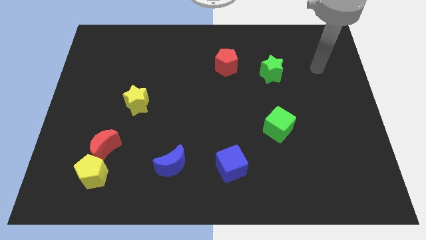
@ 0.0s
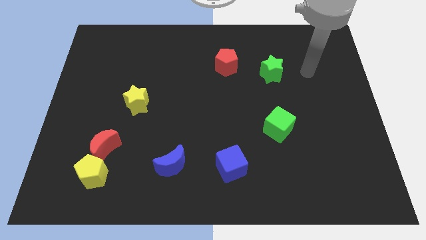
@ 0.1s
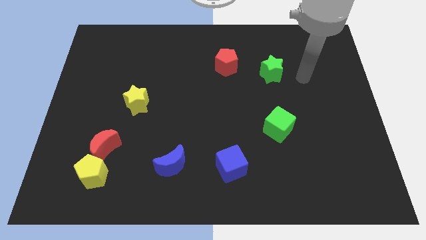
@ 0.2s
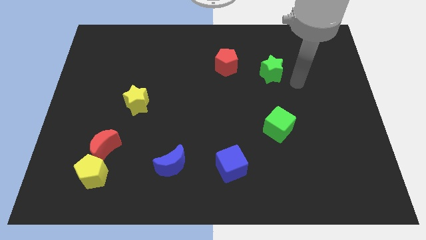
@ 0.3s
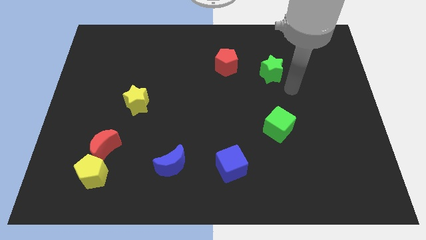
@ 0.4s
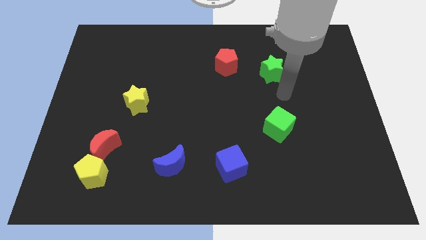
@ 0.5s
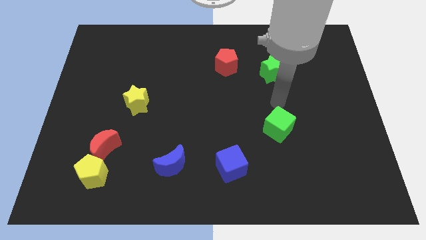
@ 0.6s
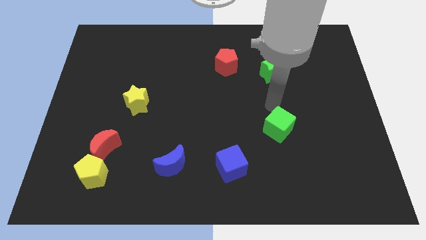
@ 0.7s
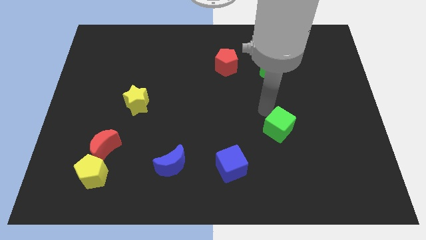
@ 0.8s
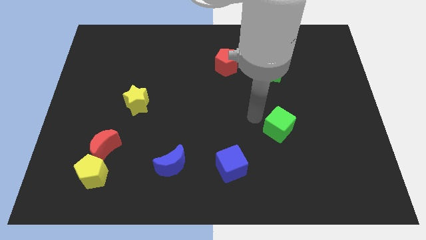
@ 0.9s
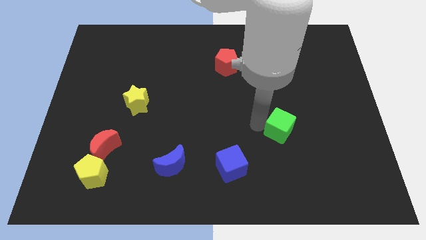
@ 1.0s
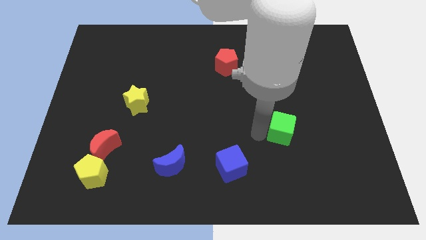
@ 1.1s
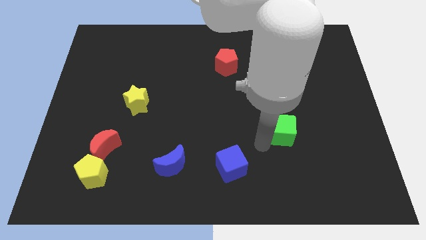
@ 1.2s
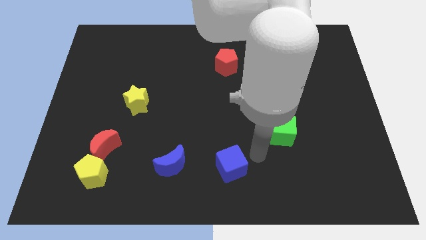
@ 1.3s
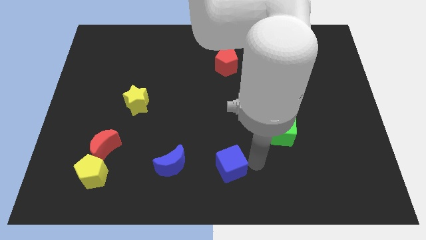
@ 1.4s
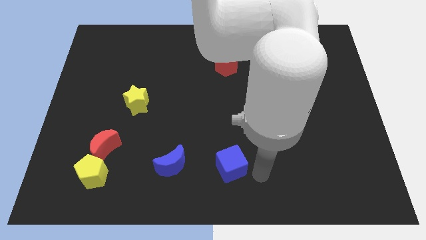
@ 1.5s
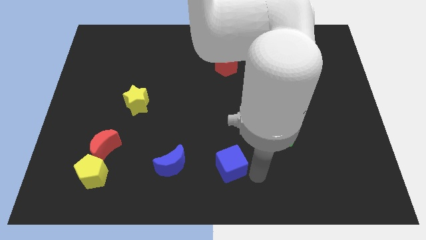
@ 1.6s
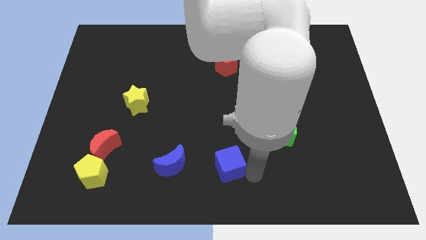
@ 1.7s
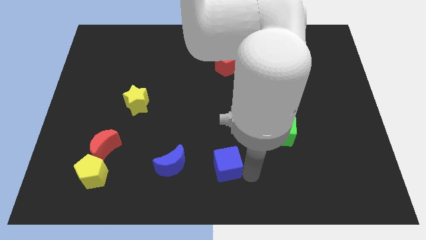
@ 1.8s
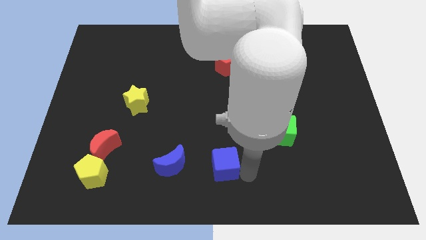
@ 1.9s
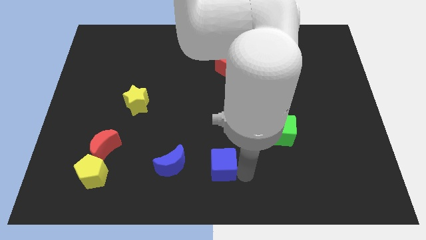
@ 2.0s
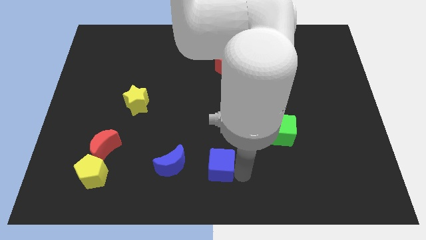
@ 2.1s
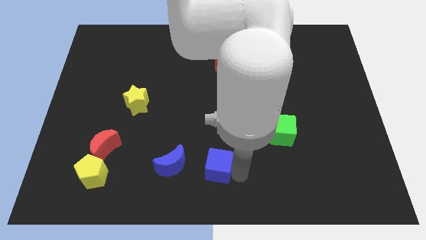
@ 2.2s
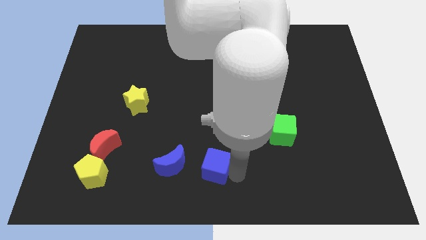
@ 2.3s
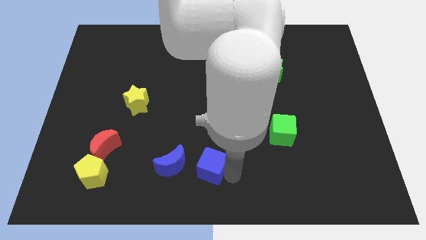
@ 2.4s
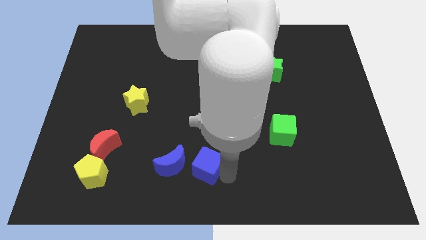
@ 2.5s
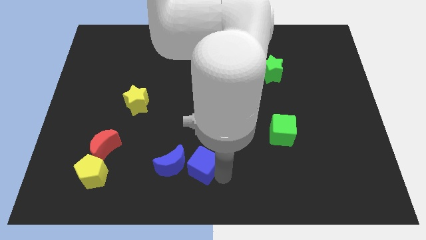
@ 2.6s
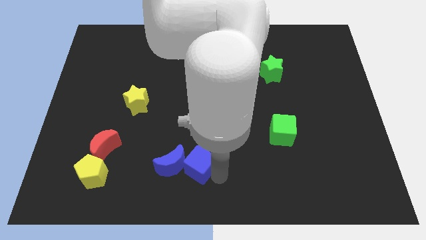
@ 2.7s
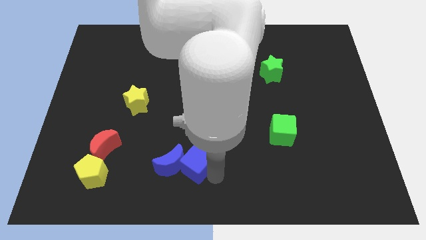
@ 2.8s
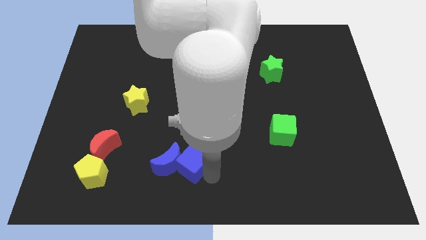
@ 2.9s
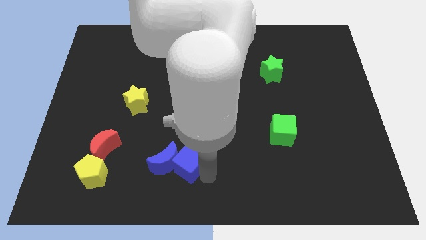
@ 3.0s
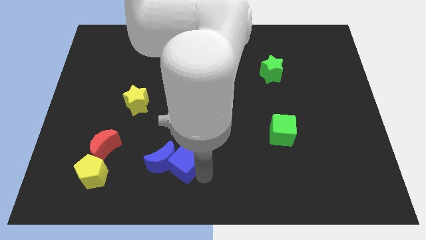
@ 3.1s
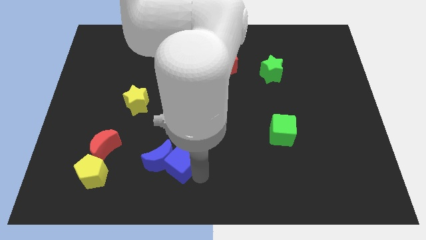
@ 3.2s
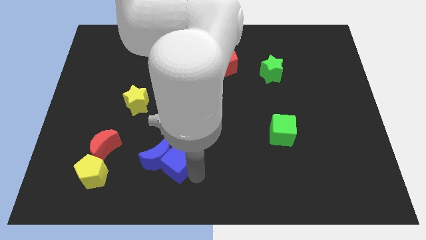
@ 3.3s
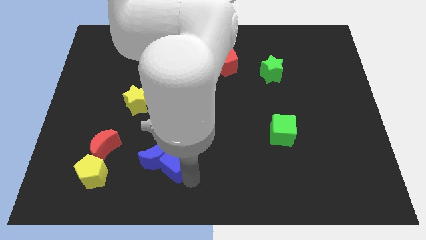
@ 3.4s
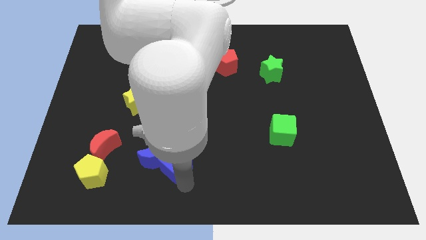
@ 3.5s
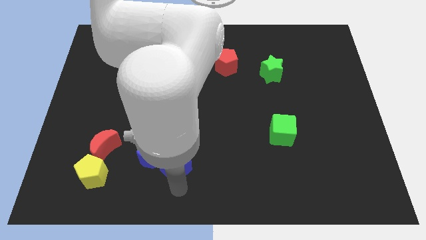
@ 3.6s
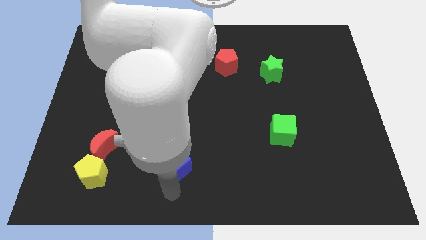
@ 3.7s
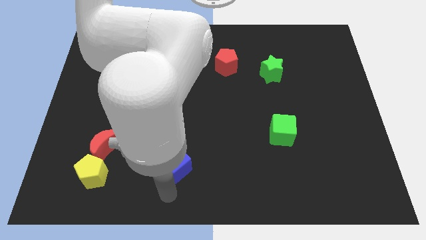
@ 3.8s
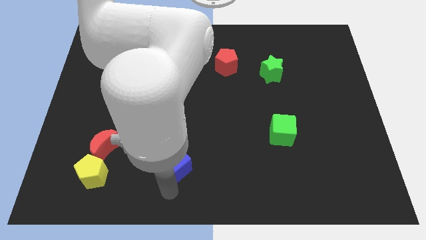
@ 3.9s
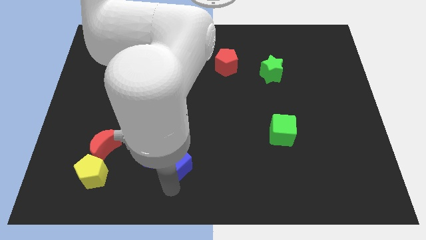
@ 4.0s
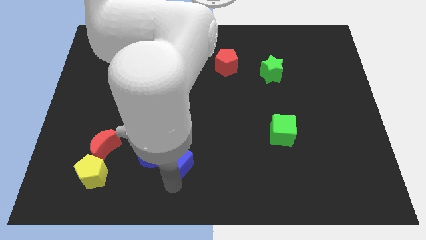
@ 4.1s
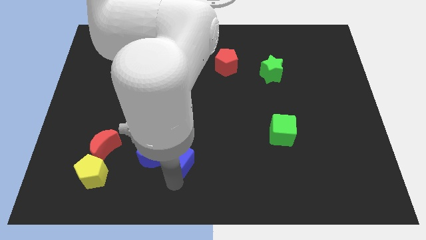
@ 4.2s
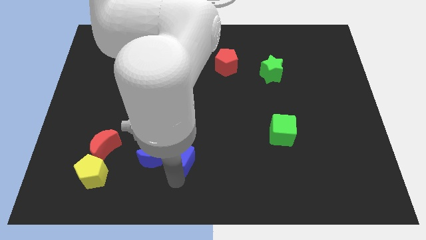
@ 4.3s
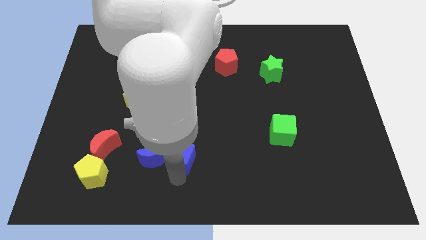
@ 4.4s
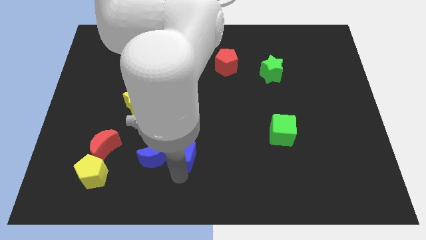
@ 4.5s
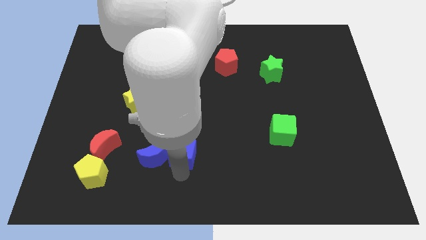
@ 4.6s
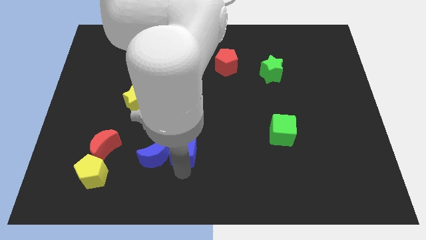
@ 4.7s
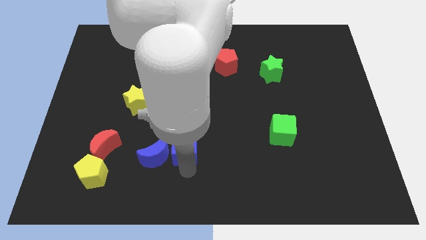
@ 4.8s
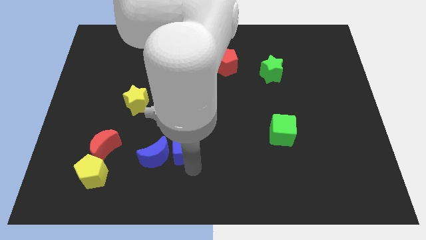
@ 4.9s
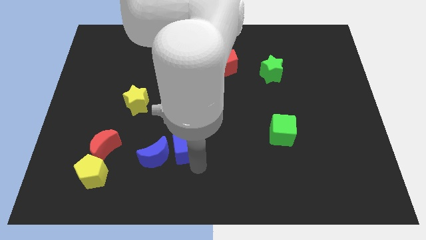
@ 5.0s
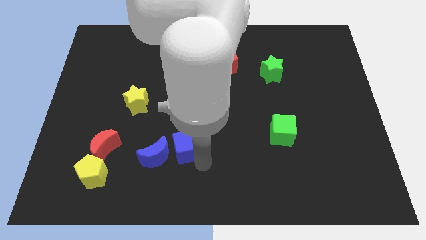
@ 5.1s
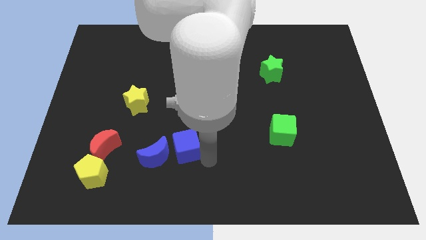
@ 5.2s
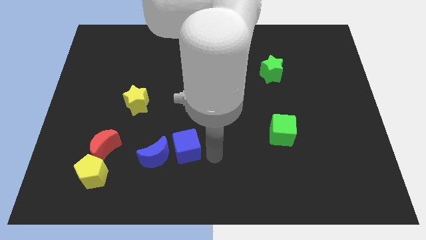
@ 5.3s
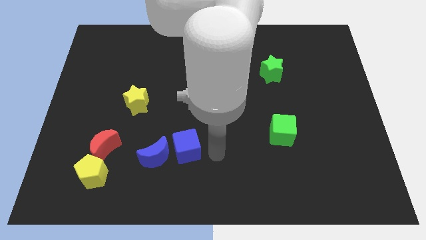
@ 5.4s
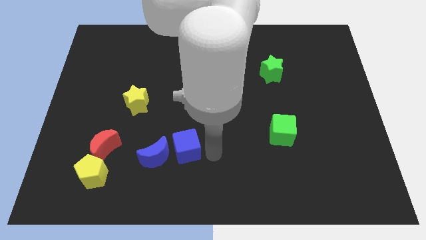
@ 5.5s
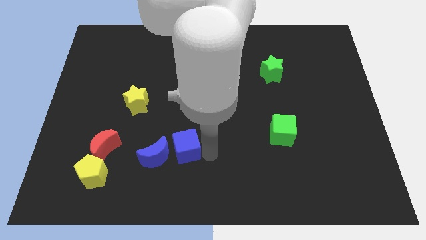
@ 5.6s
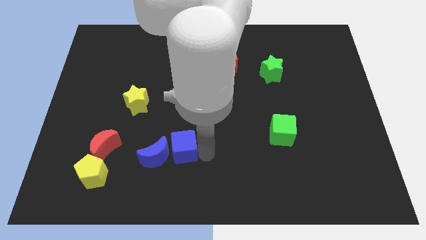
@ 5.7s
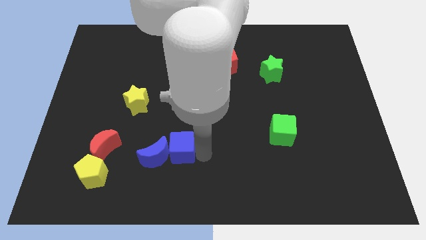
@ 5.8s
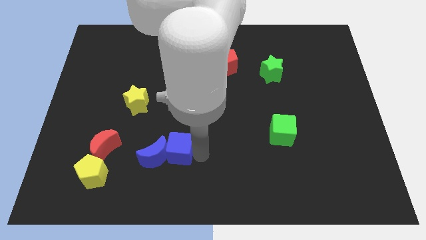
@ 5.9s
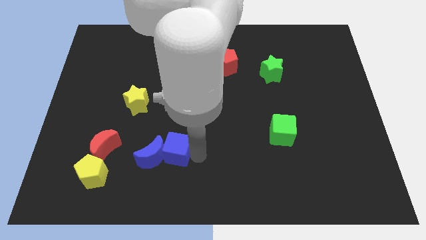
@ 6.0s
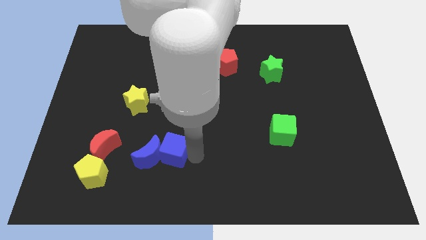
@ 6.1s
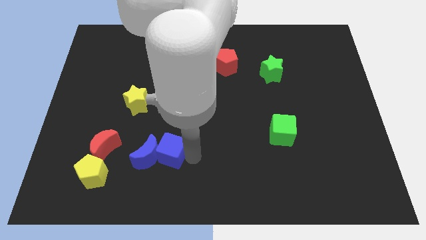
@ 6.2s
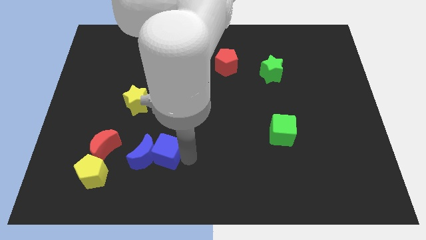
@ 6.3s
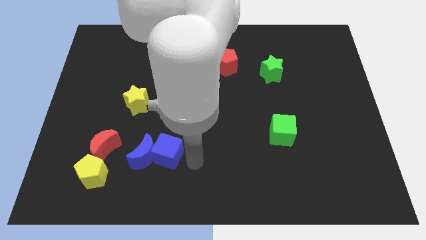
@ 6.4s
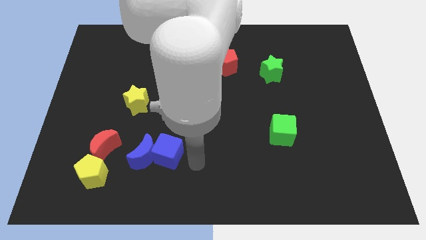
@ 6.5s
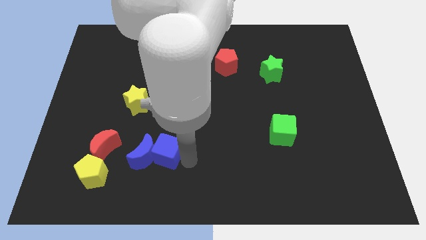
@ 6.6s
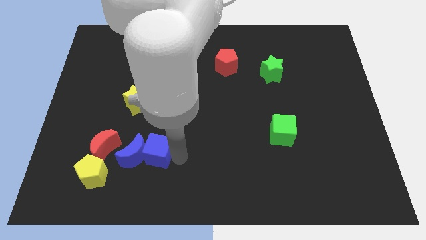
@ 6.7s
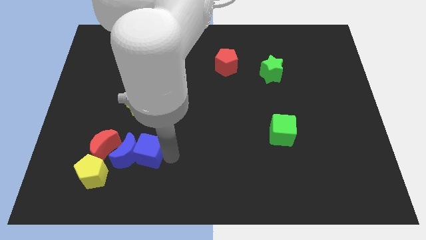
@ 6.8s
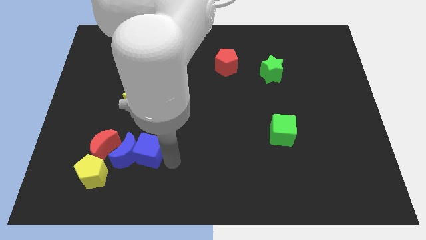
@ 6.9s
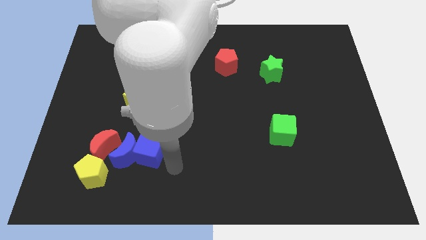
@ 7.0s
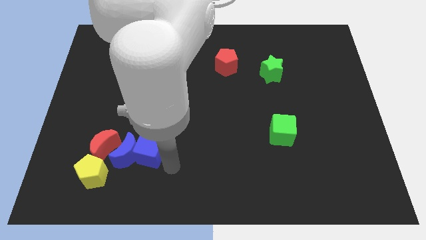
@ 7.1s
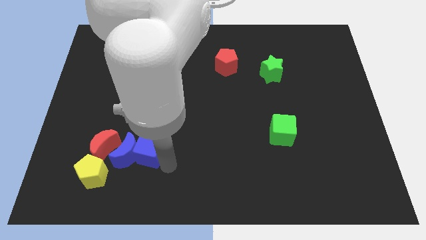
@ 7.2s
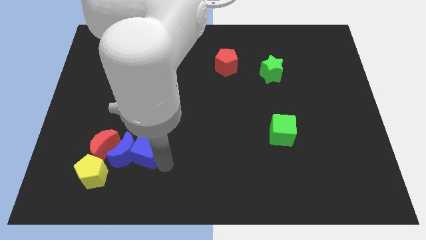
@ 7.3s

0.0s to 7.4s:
slide the blue cube to the bottom of the yellow star

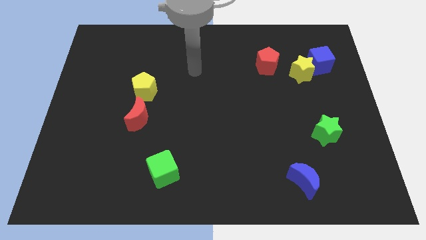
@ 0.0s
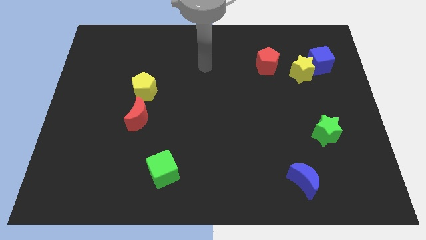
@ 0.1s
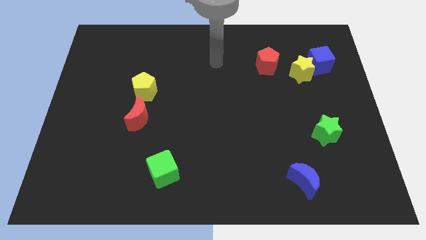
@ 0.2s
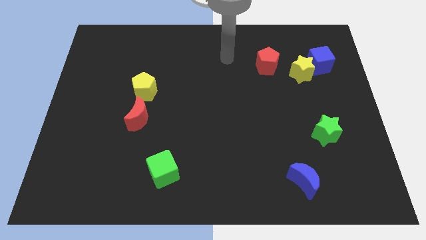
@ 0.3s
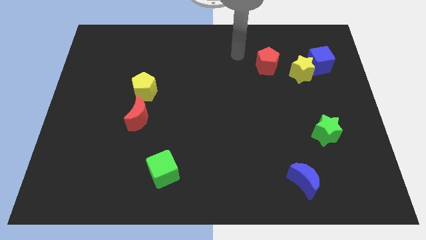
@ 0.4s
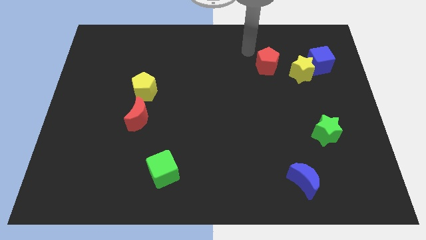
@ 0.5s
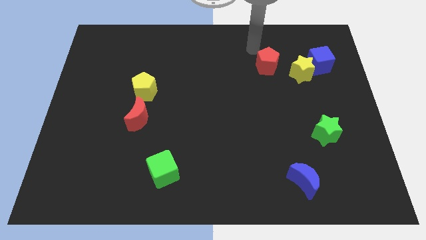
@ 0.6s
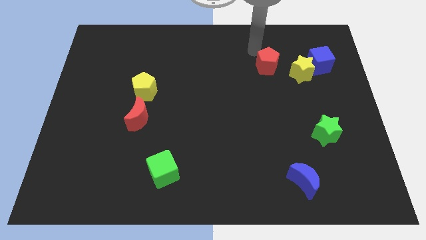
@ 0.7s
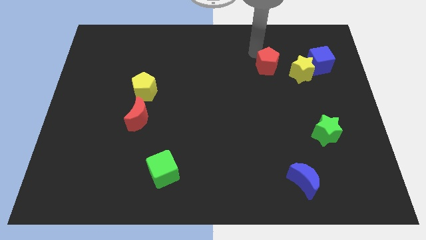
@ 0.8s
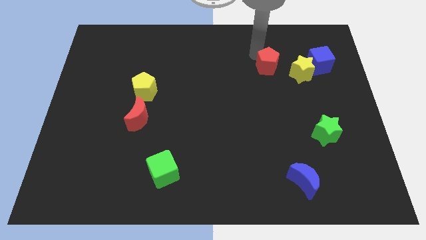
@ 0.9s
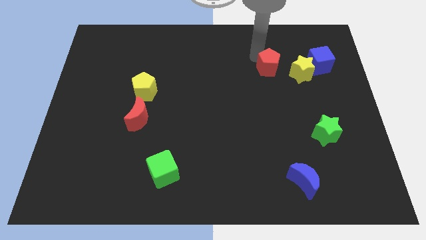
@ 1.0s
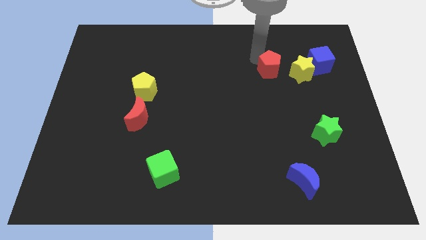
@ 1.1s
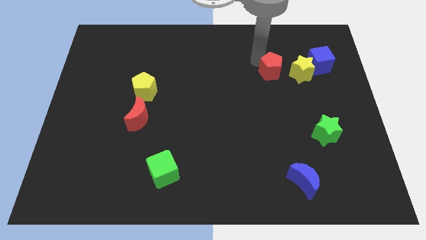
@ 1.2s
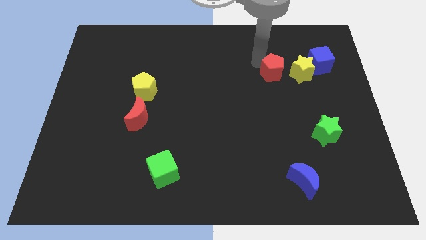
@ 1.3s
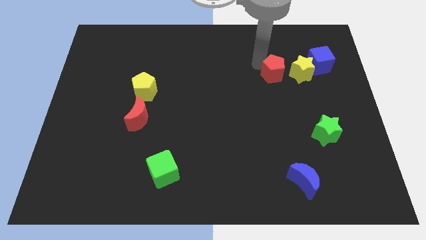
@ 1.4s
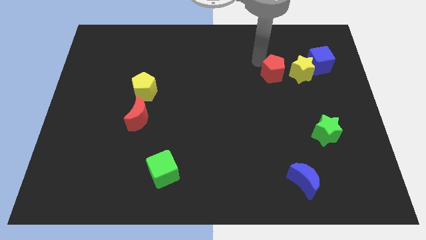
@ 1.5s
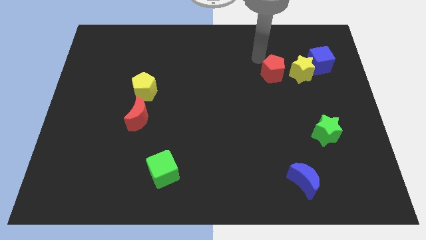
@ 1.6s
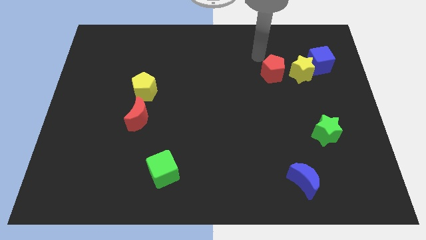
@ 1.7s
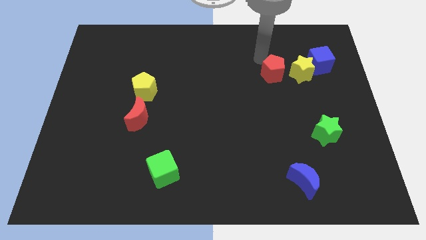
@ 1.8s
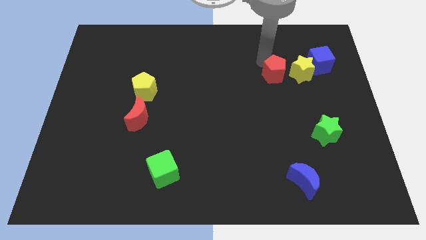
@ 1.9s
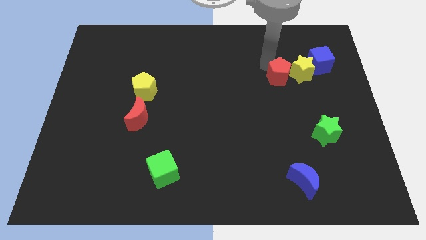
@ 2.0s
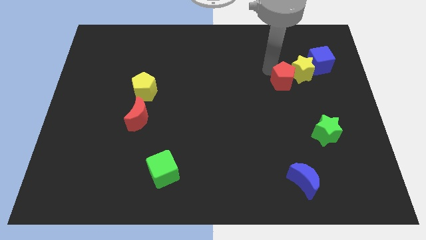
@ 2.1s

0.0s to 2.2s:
push the red pentagon to the bottom left side of the blue cube
